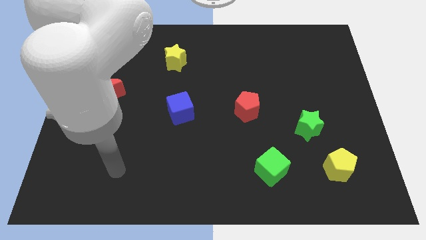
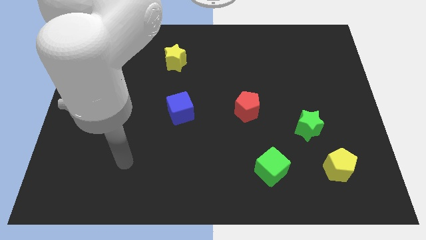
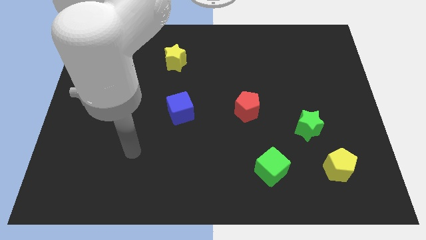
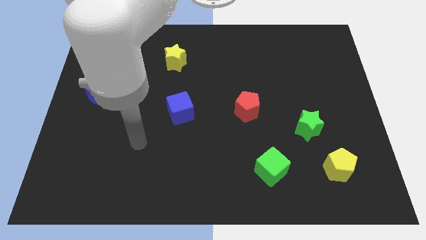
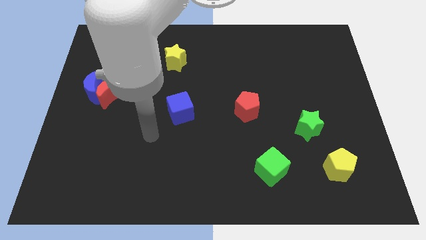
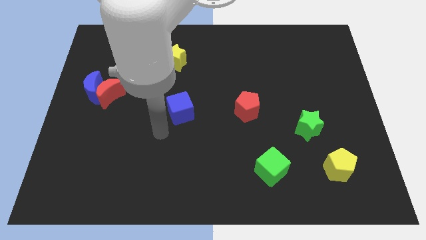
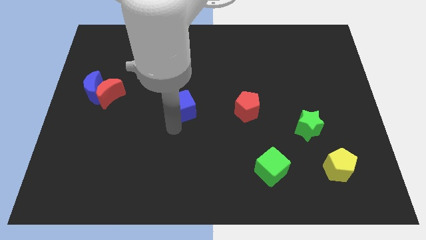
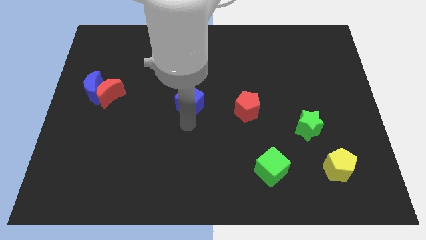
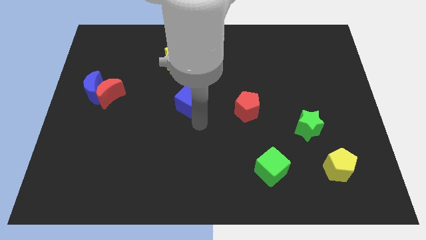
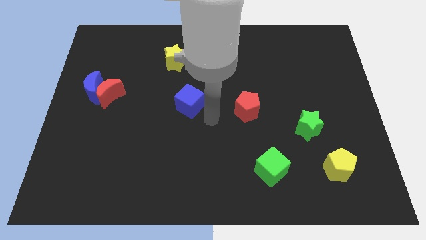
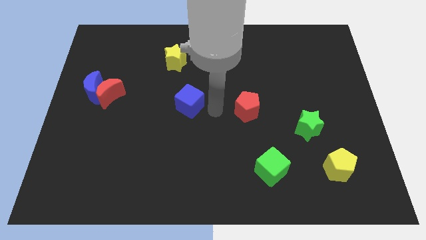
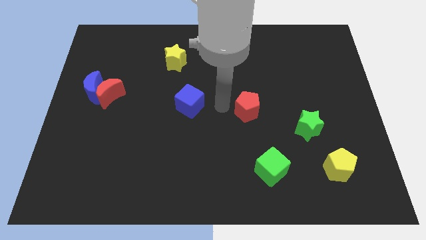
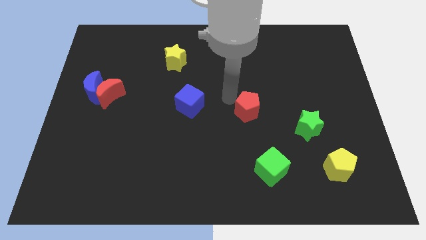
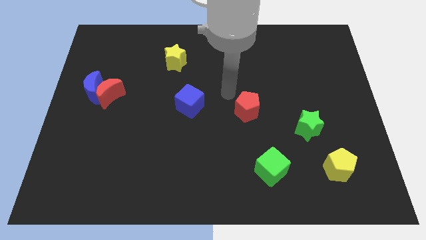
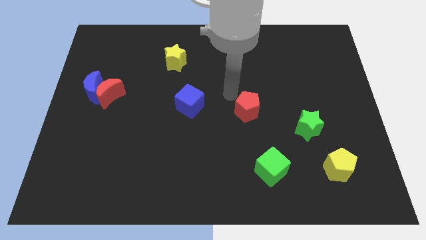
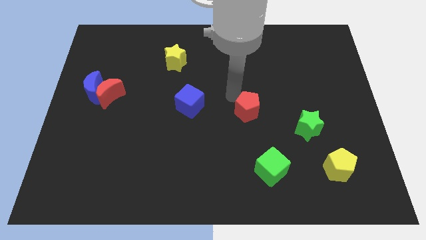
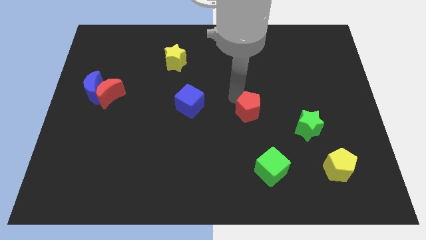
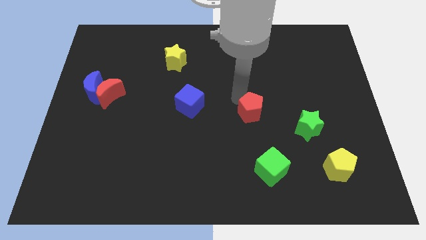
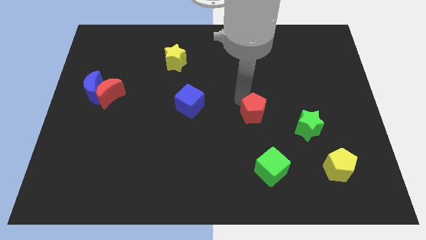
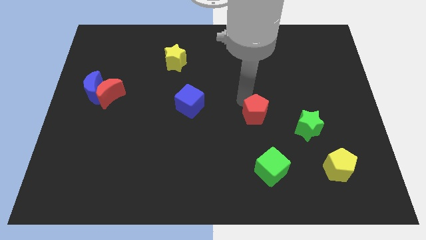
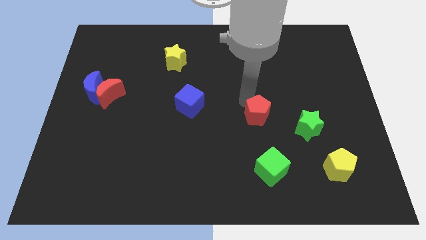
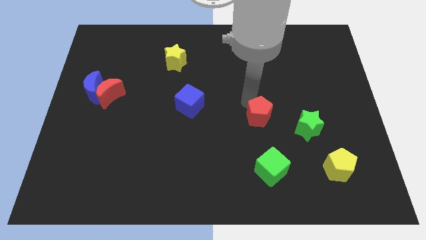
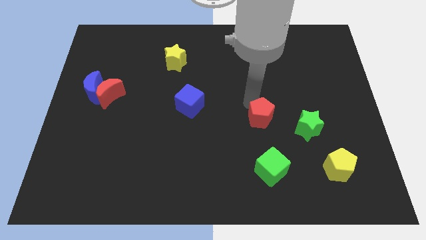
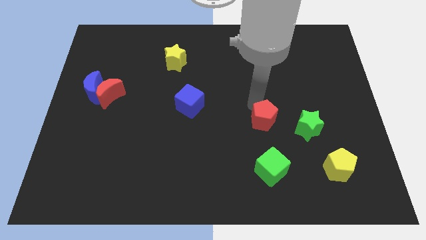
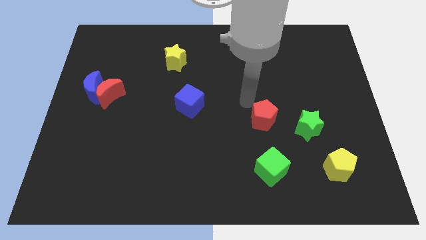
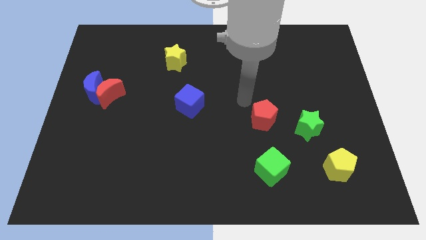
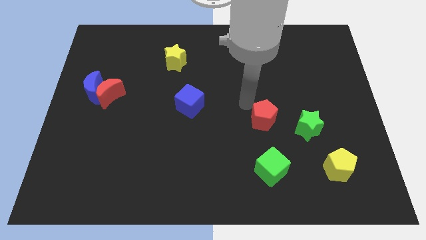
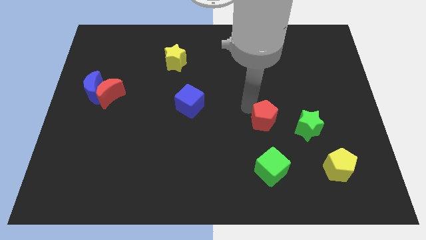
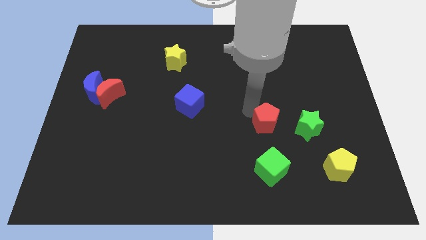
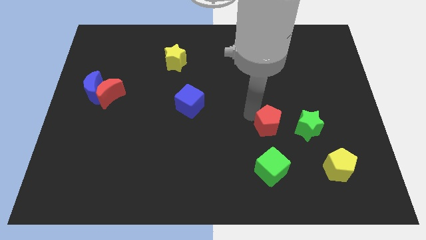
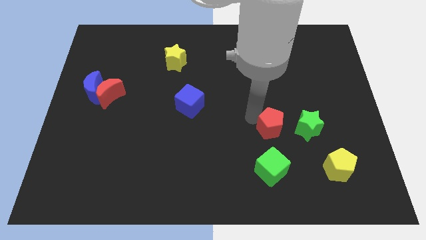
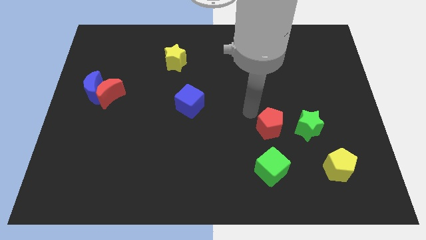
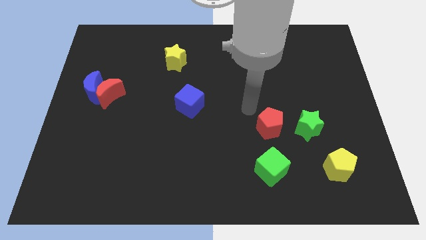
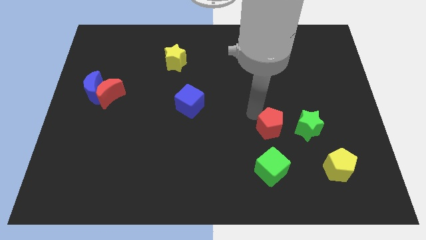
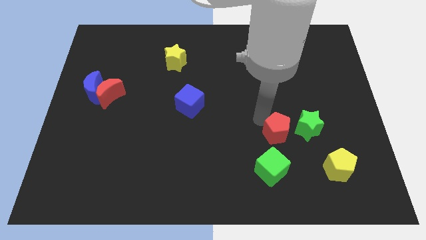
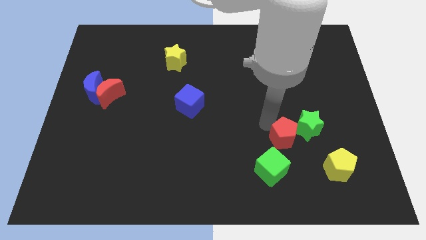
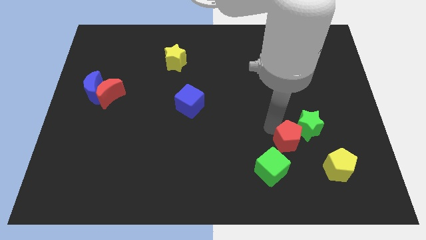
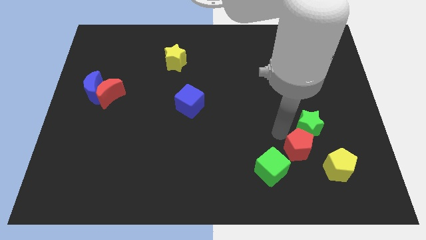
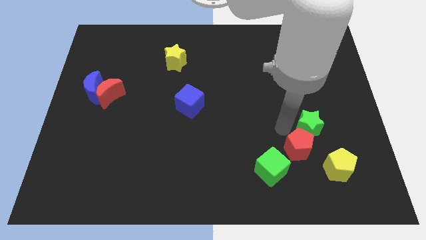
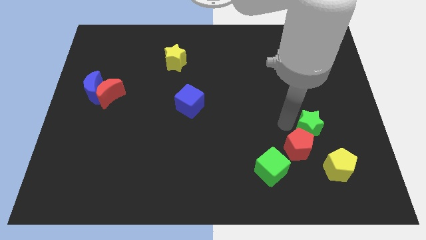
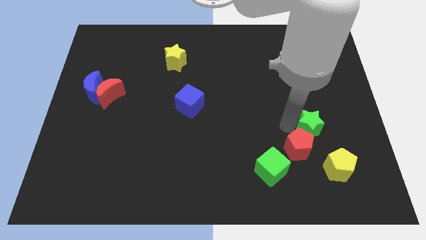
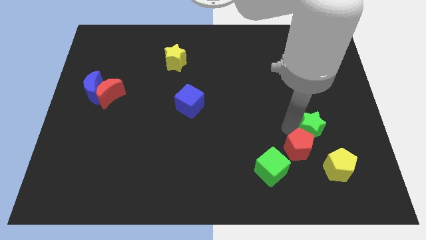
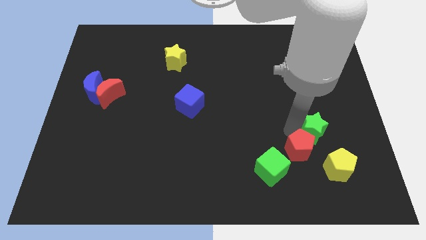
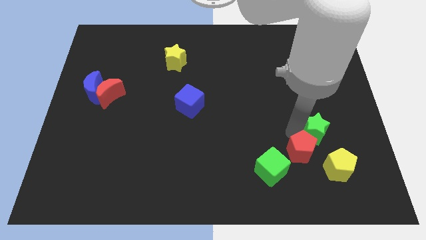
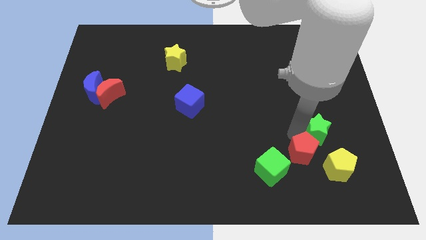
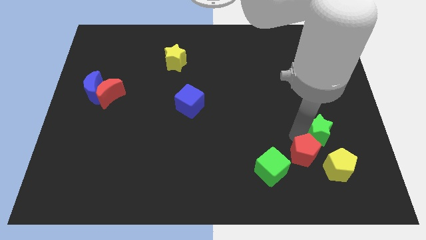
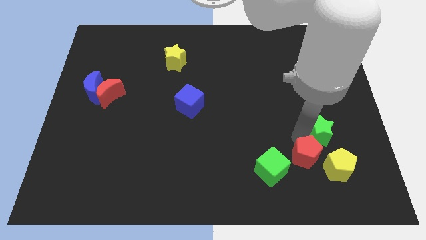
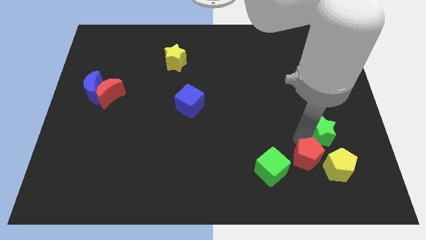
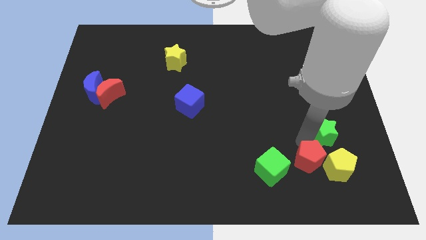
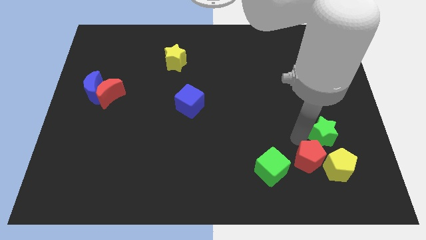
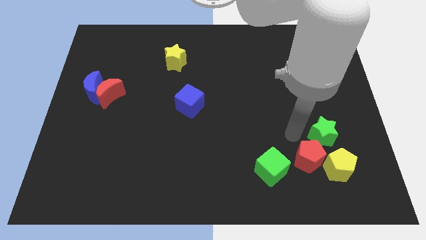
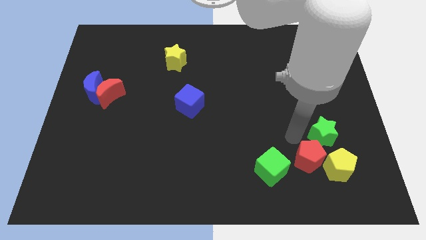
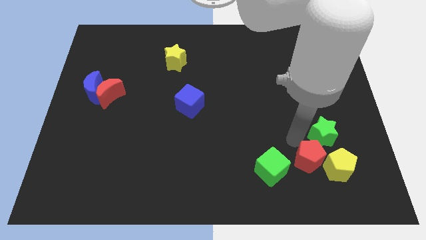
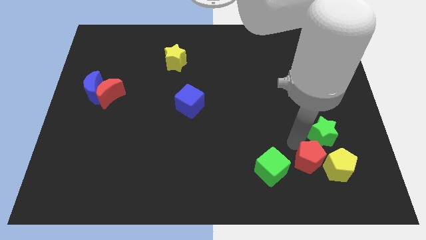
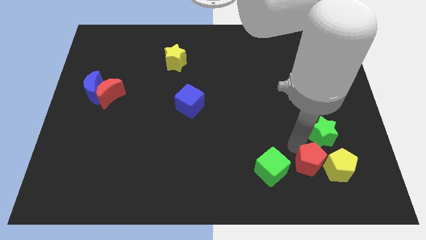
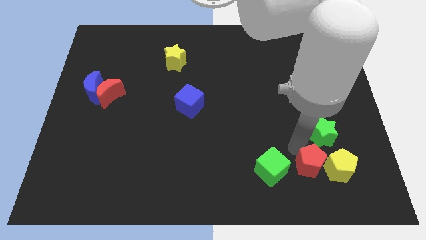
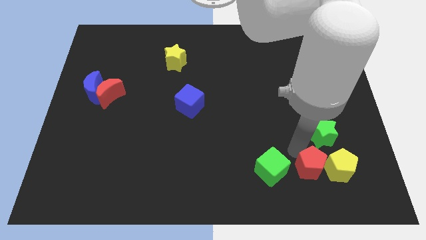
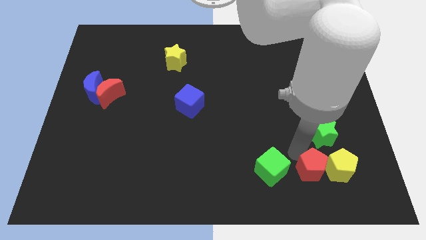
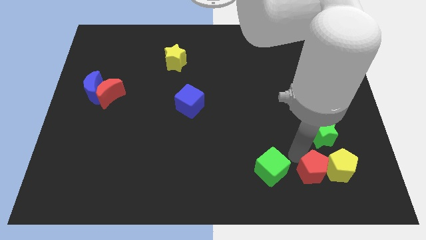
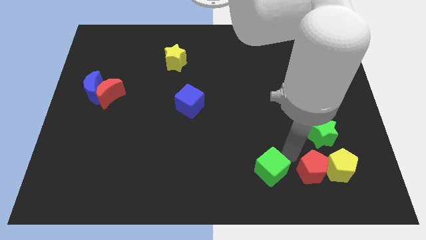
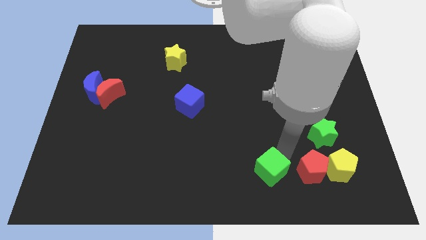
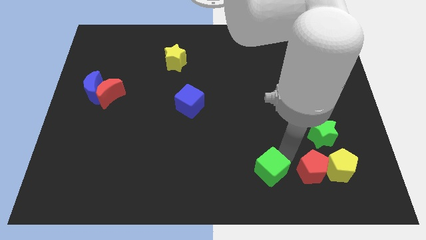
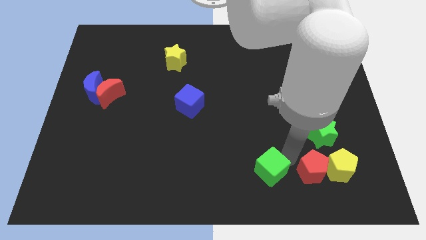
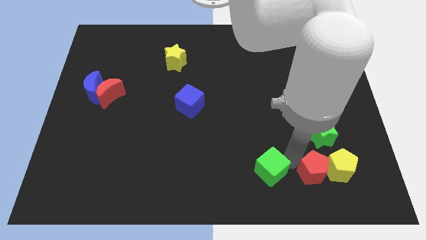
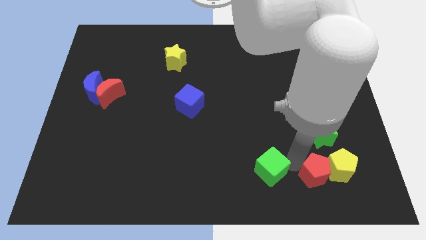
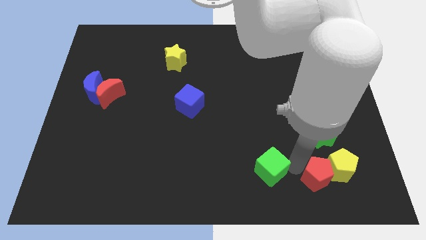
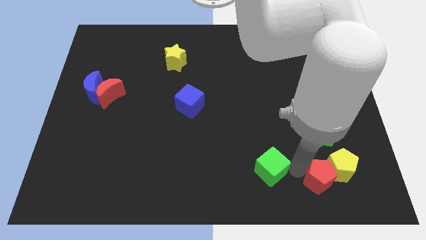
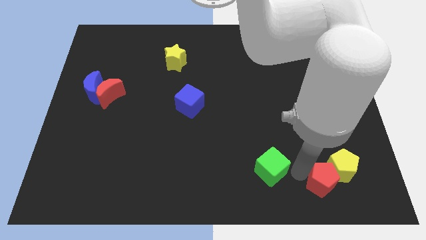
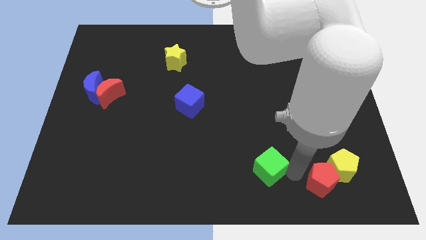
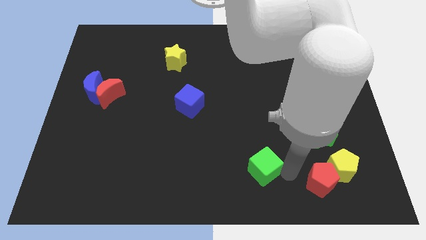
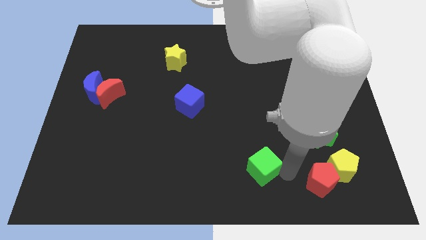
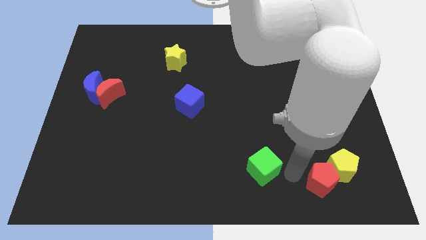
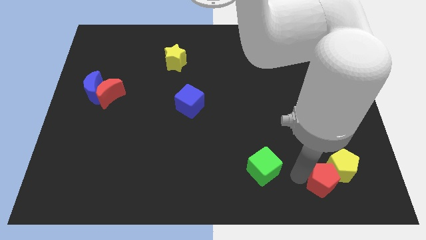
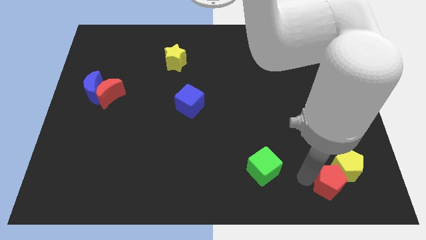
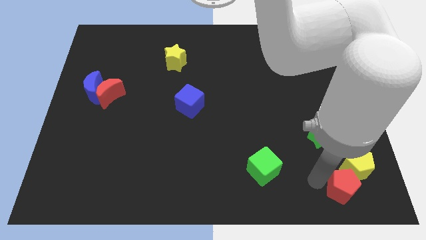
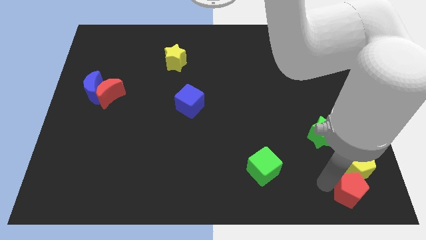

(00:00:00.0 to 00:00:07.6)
slide the red pentagon to the lower right corner
